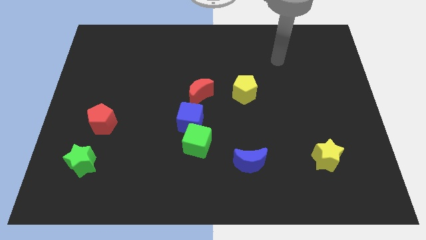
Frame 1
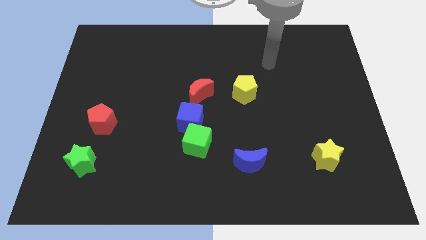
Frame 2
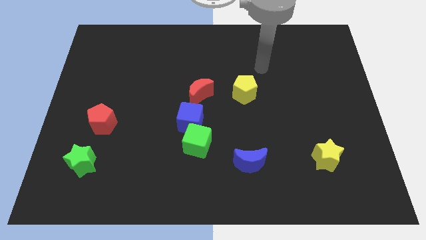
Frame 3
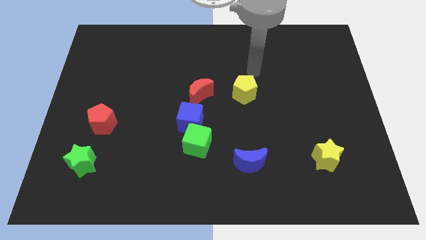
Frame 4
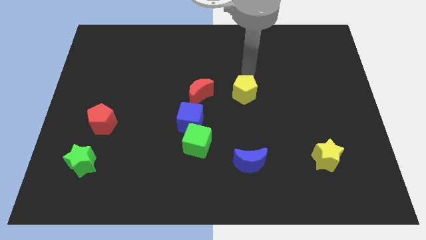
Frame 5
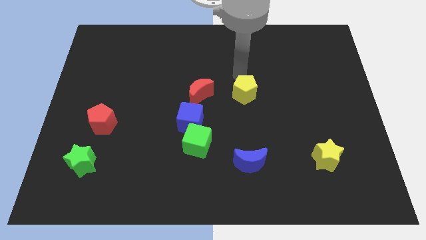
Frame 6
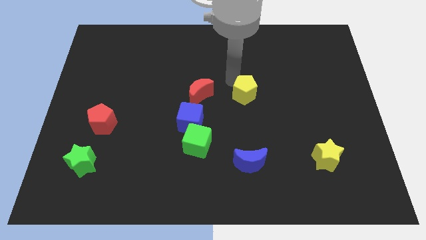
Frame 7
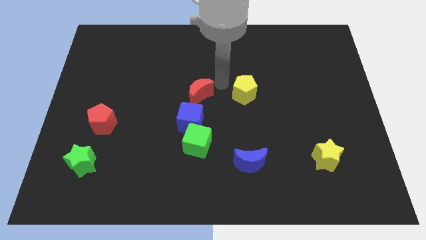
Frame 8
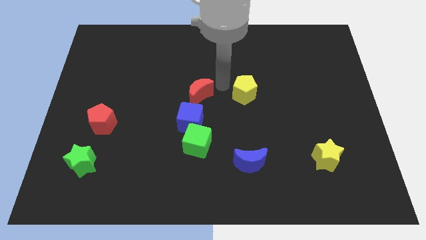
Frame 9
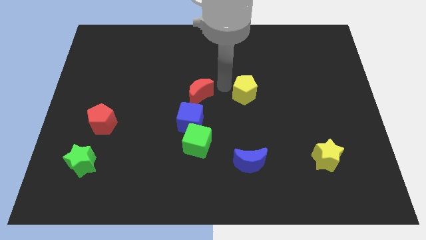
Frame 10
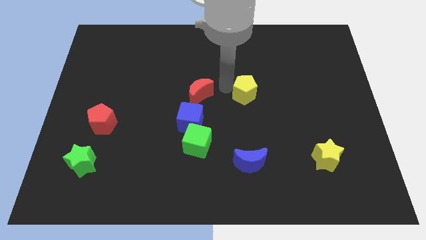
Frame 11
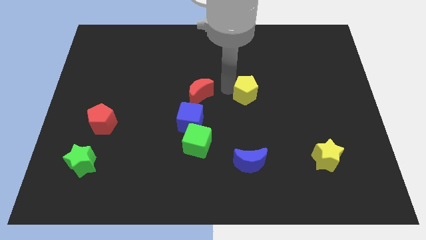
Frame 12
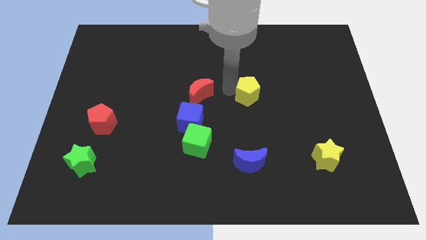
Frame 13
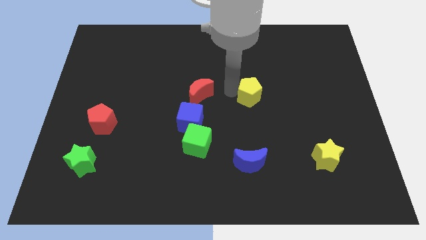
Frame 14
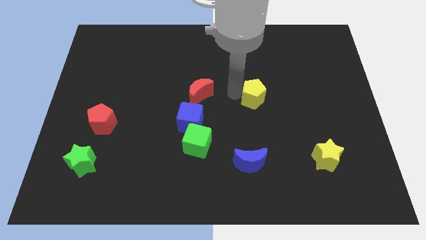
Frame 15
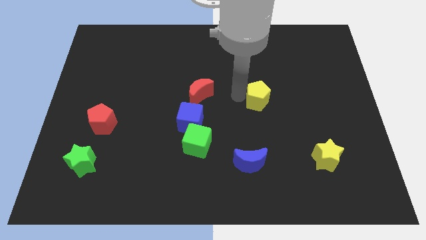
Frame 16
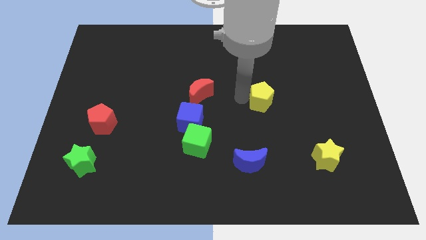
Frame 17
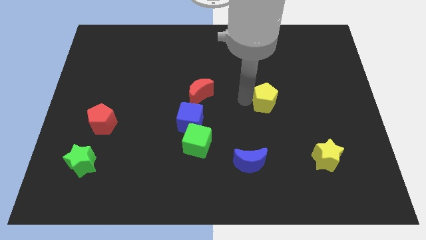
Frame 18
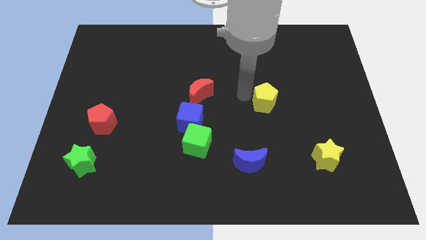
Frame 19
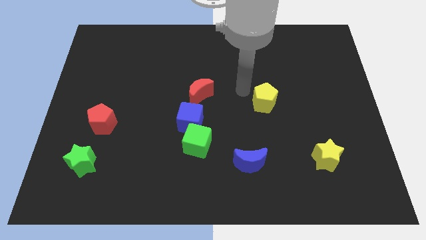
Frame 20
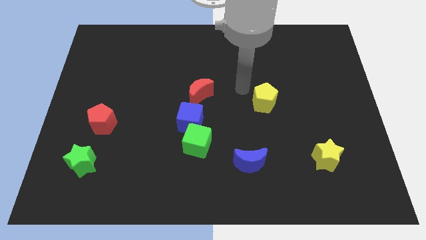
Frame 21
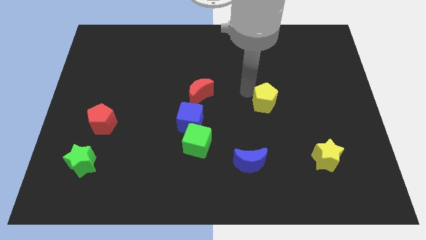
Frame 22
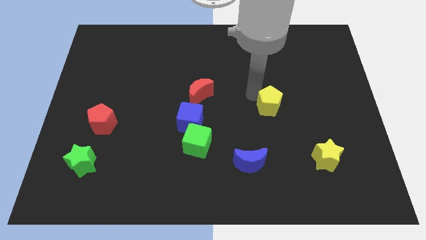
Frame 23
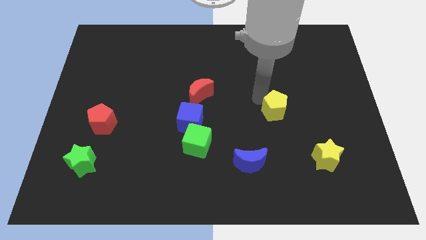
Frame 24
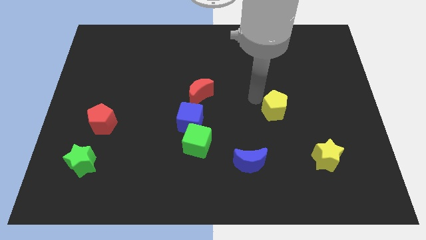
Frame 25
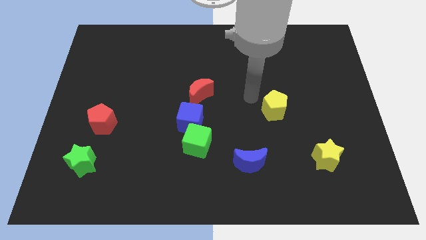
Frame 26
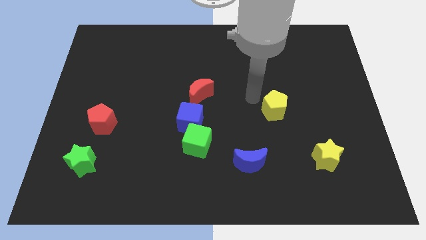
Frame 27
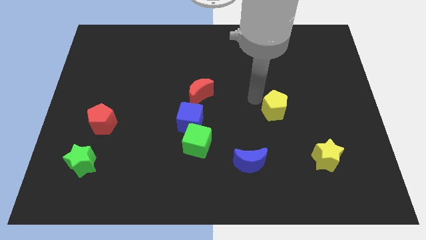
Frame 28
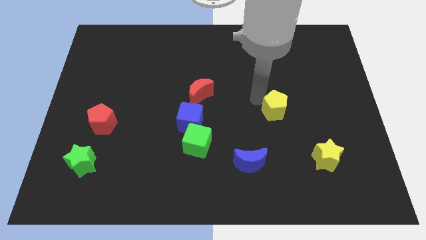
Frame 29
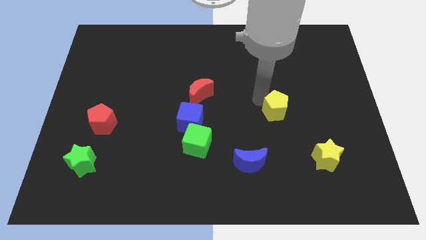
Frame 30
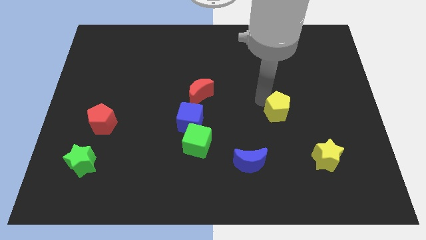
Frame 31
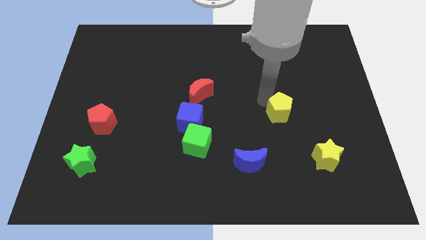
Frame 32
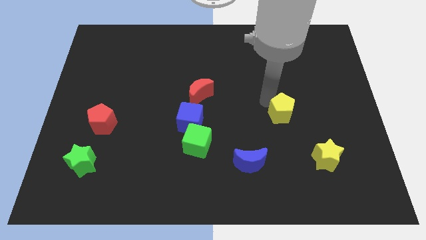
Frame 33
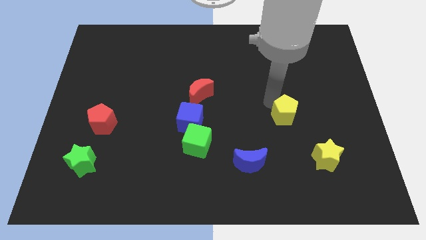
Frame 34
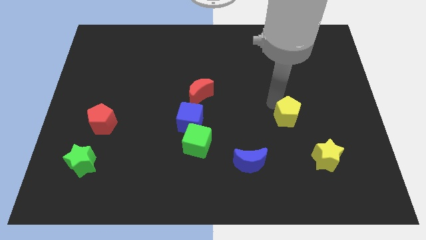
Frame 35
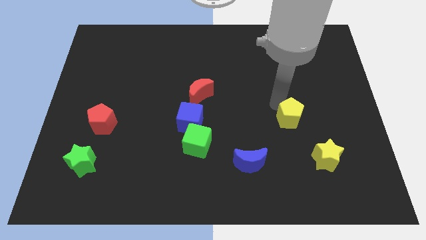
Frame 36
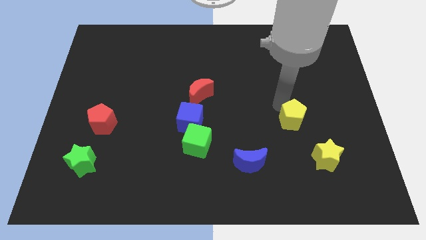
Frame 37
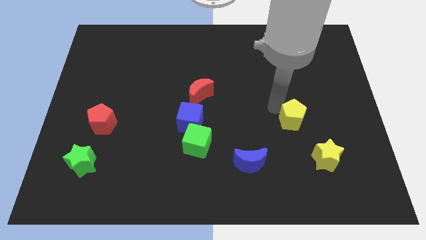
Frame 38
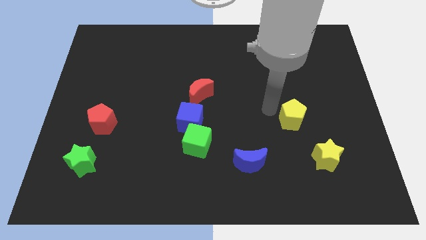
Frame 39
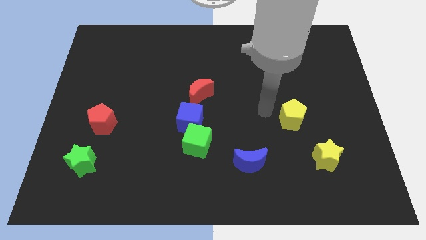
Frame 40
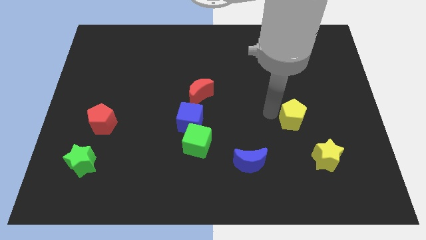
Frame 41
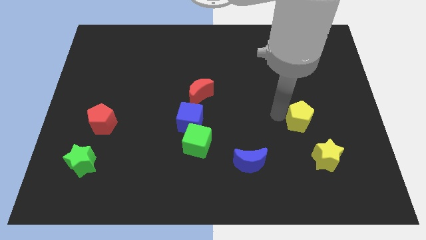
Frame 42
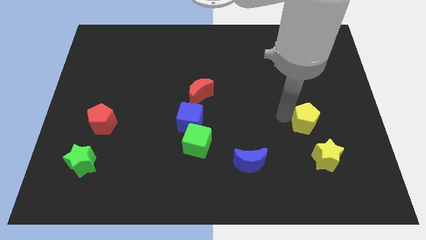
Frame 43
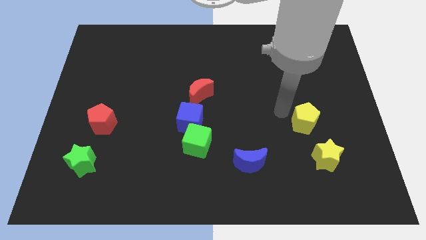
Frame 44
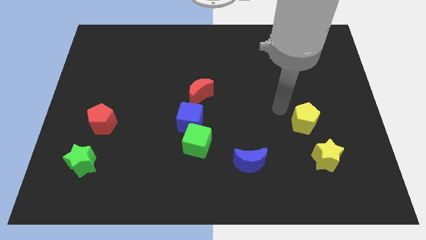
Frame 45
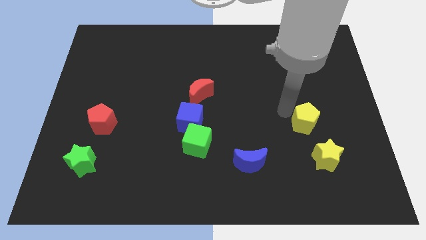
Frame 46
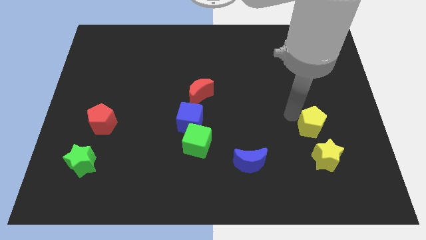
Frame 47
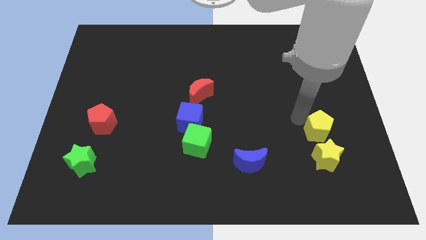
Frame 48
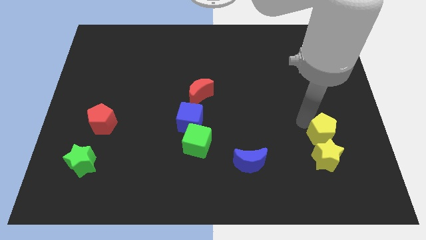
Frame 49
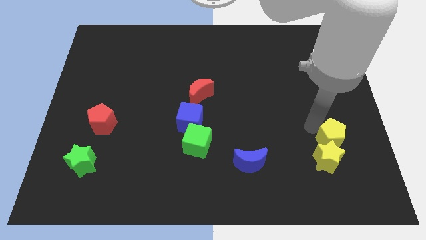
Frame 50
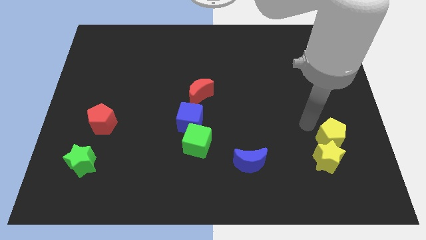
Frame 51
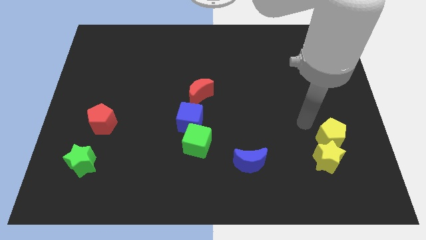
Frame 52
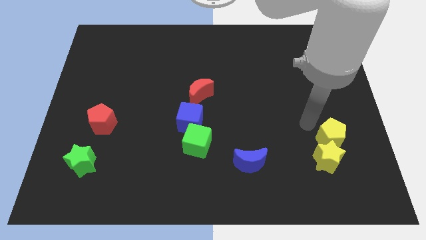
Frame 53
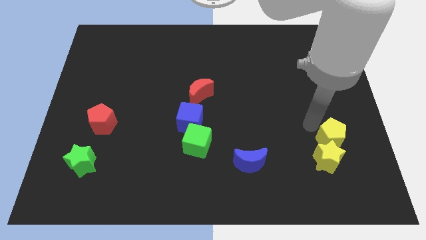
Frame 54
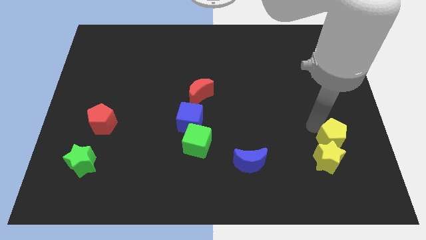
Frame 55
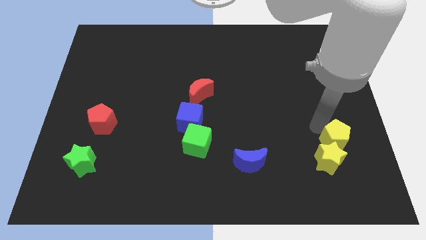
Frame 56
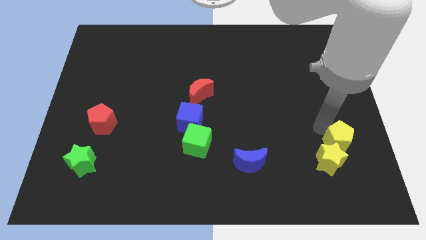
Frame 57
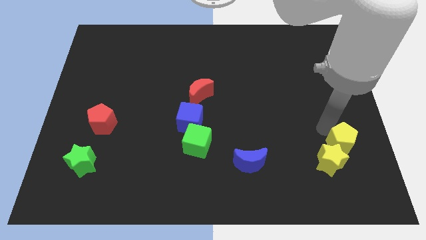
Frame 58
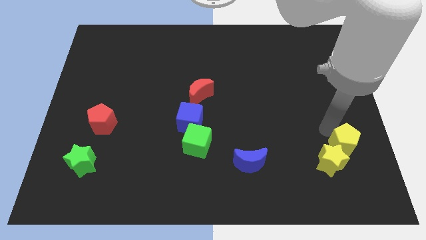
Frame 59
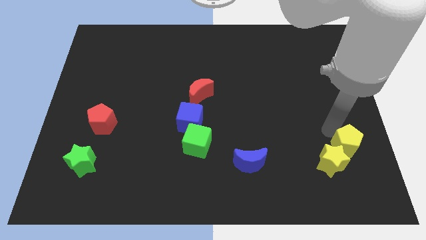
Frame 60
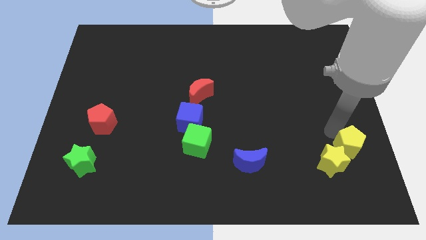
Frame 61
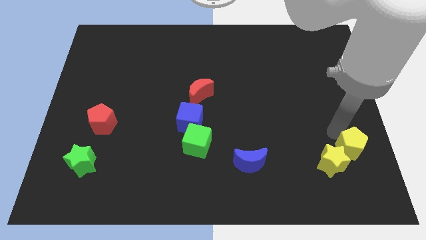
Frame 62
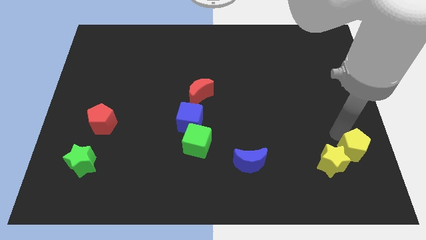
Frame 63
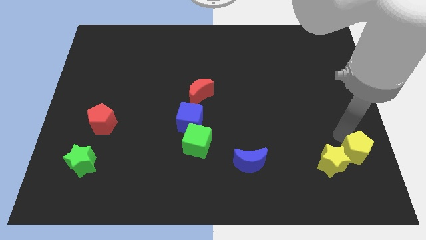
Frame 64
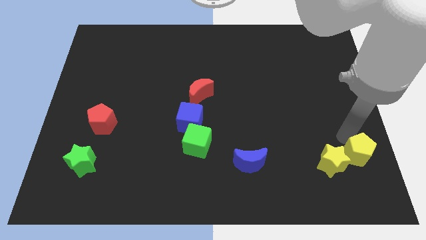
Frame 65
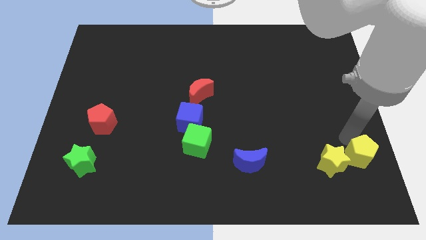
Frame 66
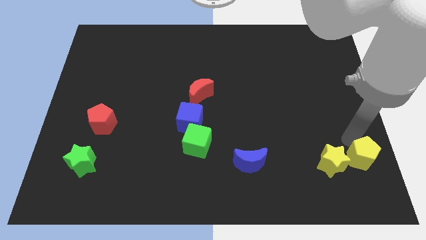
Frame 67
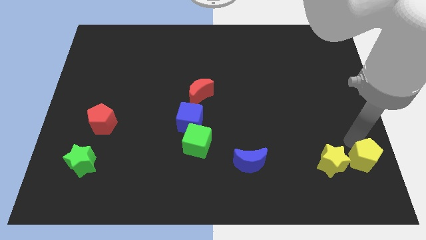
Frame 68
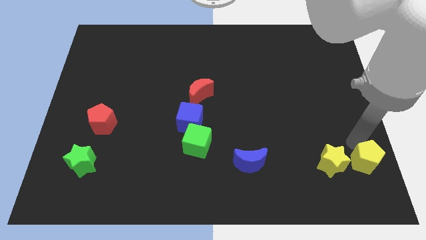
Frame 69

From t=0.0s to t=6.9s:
slide the yellow pentagon to the bottom right
